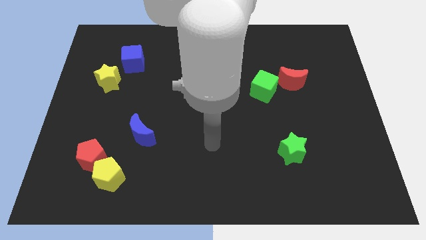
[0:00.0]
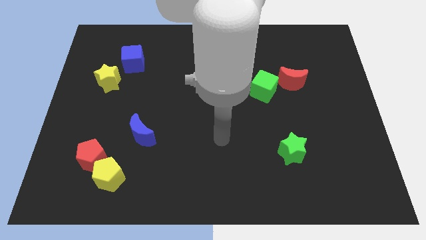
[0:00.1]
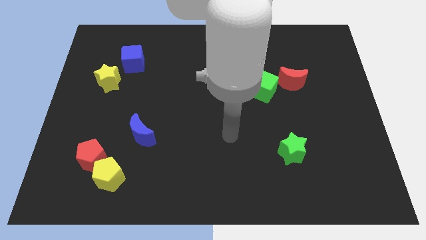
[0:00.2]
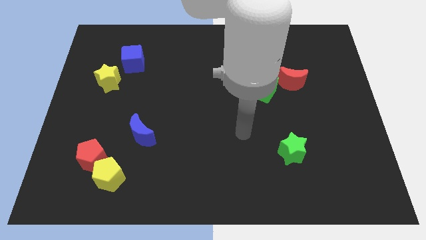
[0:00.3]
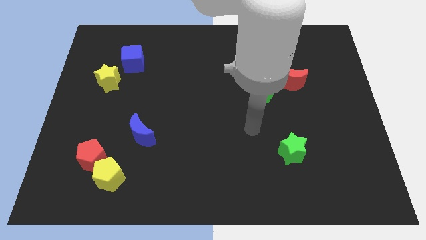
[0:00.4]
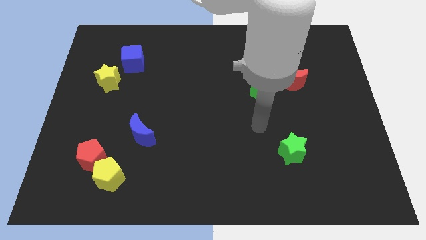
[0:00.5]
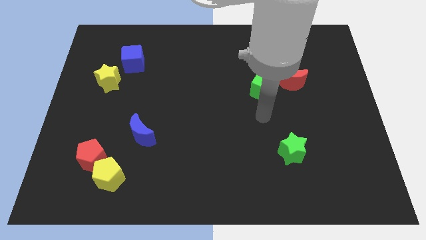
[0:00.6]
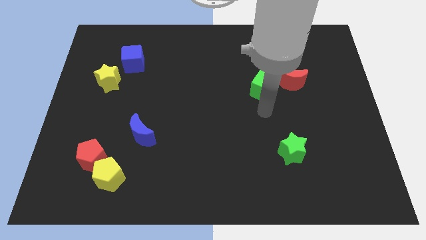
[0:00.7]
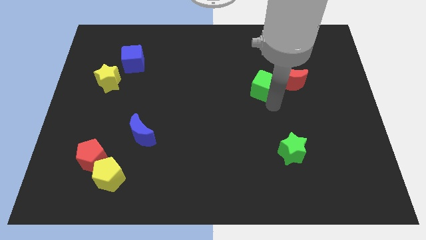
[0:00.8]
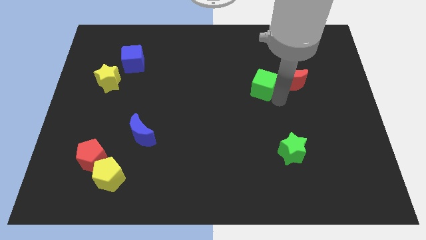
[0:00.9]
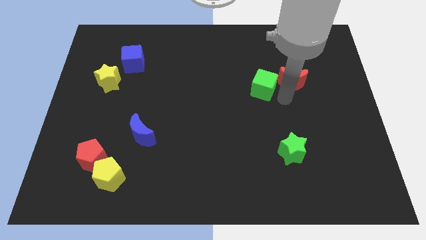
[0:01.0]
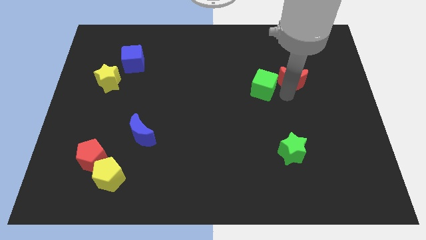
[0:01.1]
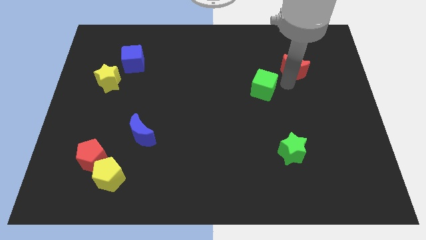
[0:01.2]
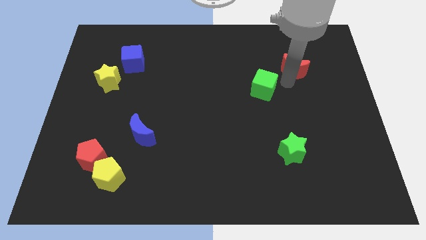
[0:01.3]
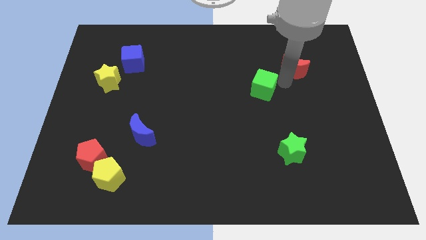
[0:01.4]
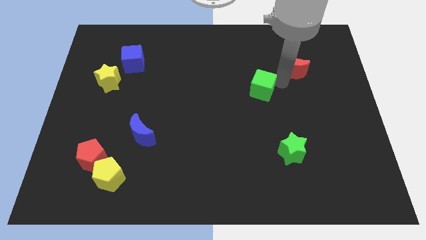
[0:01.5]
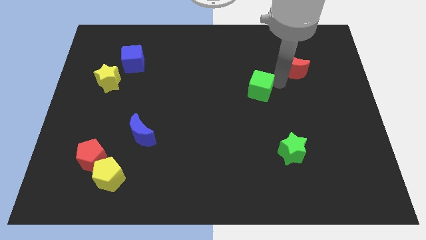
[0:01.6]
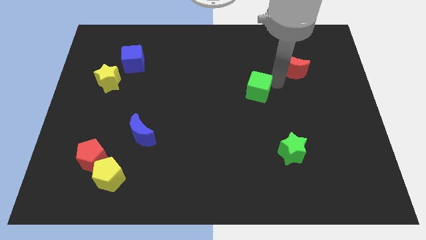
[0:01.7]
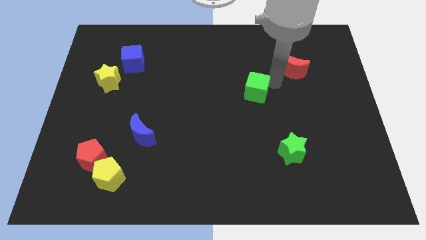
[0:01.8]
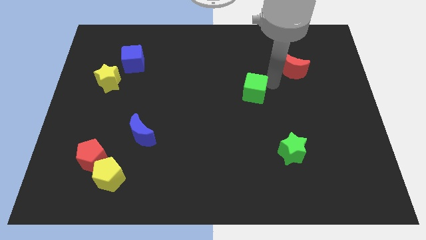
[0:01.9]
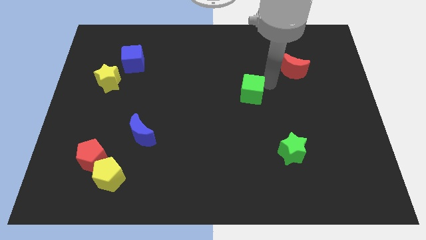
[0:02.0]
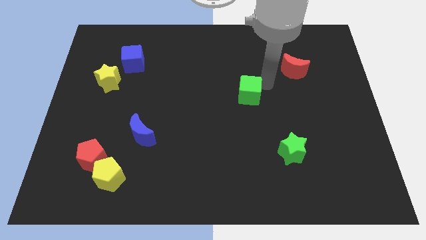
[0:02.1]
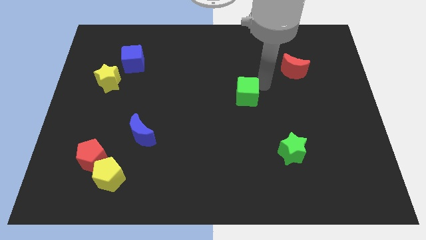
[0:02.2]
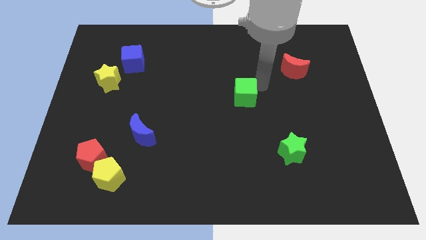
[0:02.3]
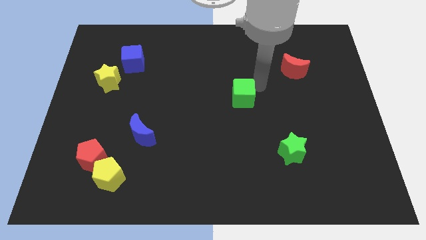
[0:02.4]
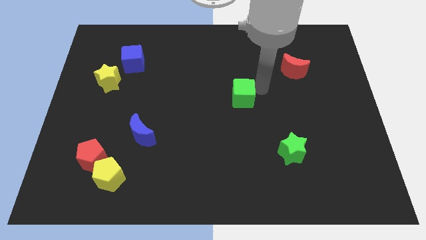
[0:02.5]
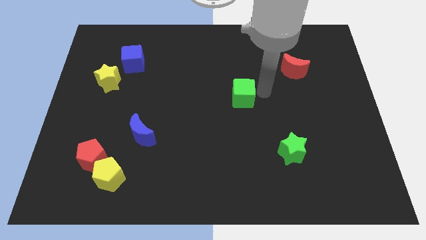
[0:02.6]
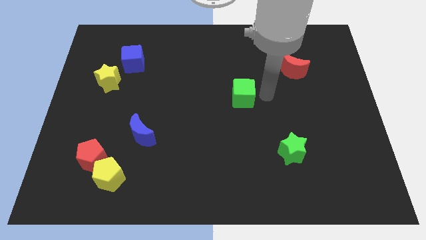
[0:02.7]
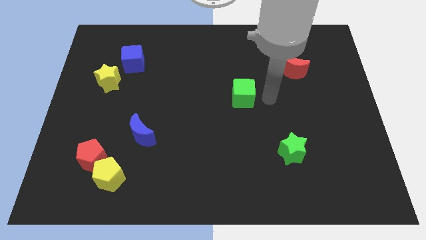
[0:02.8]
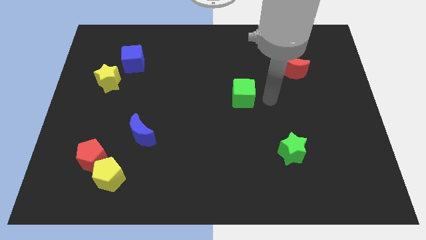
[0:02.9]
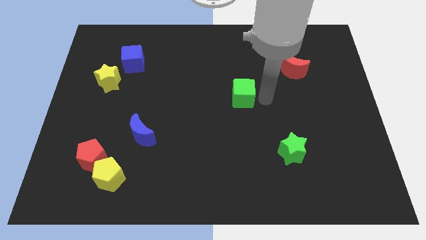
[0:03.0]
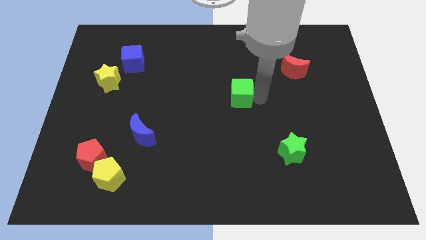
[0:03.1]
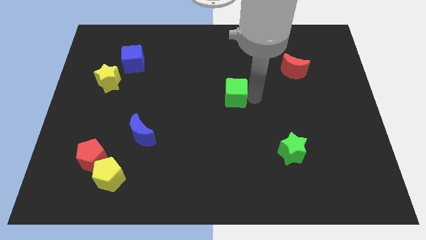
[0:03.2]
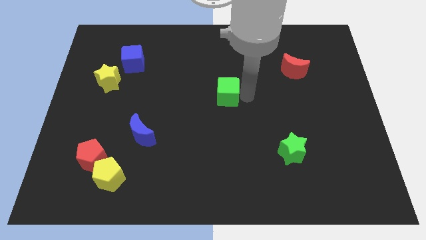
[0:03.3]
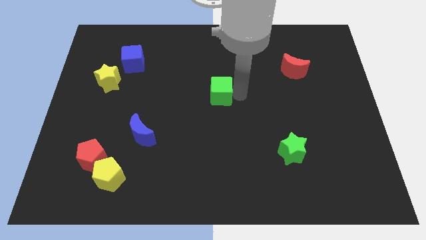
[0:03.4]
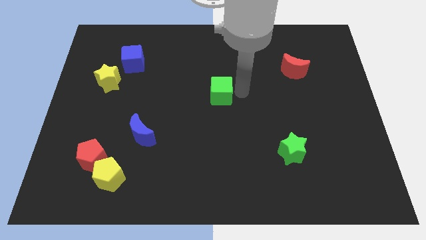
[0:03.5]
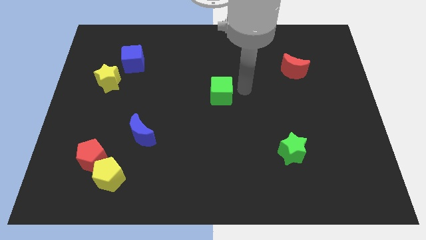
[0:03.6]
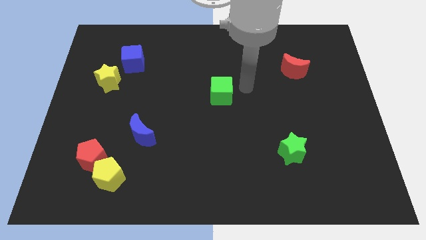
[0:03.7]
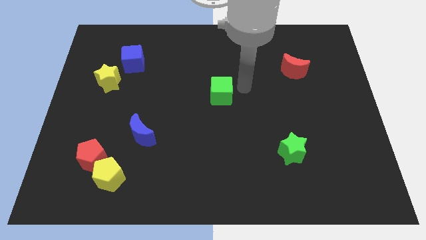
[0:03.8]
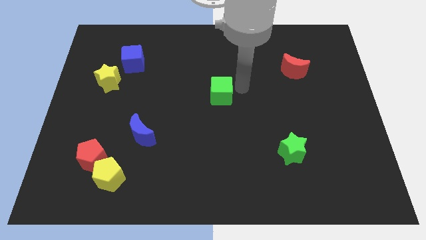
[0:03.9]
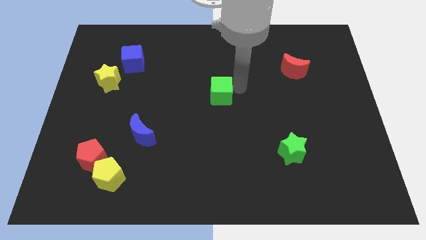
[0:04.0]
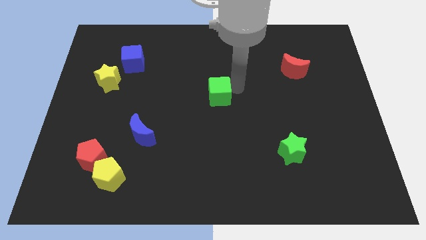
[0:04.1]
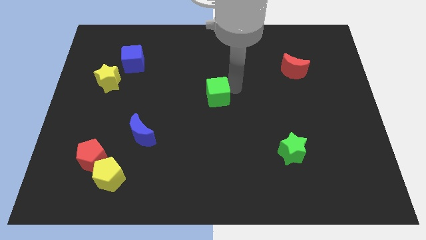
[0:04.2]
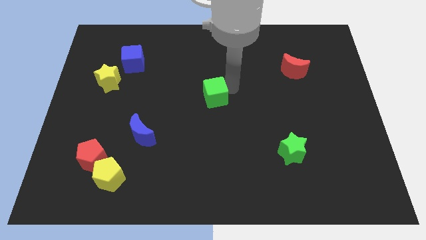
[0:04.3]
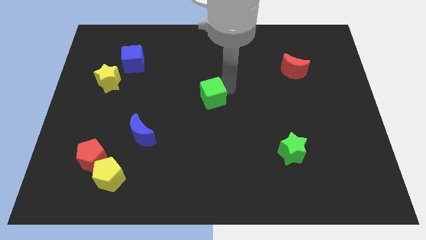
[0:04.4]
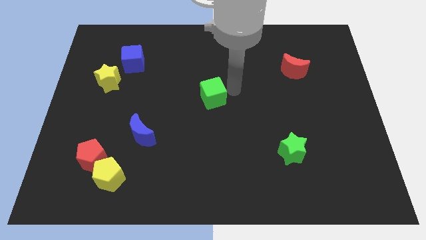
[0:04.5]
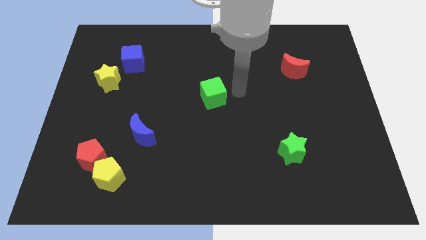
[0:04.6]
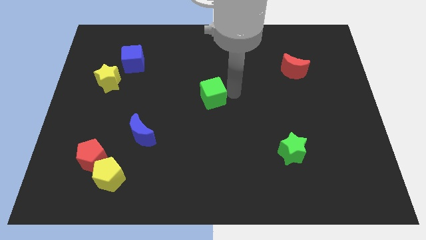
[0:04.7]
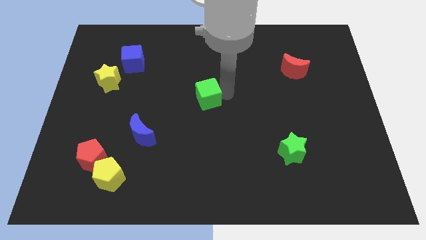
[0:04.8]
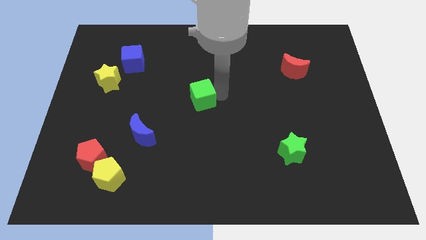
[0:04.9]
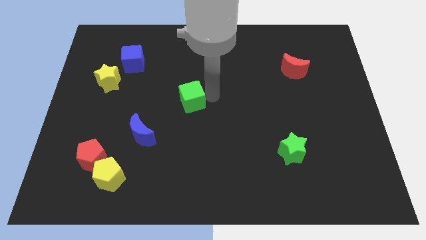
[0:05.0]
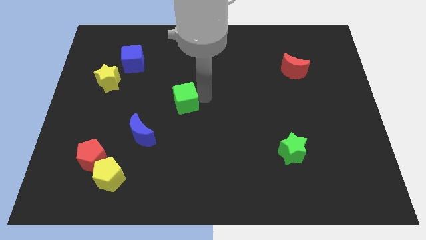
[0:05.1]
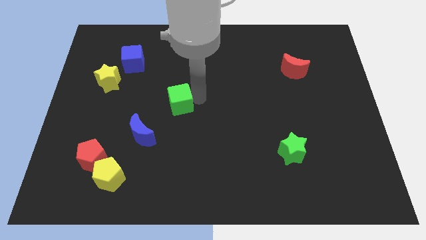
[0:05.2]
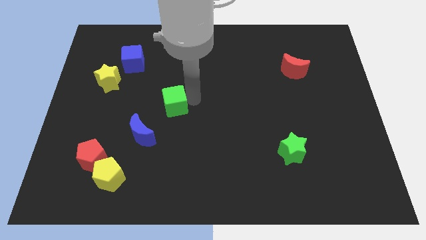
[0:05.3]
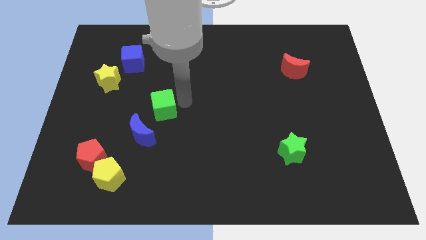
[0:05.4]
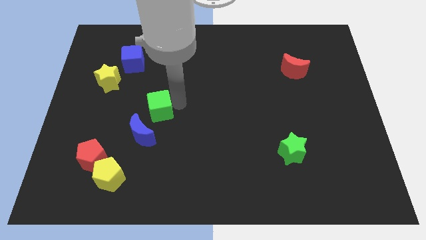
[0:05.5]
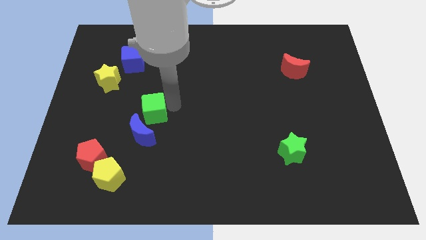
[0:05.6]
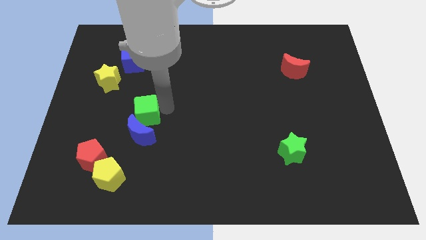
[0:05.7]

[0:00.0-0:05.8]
put the green cube to the top left side of the blue moon

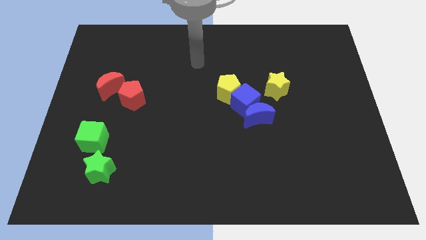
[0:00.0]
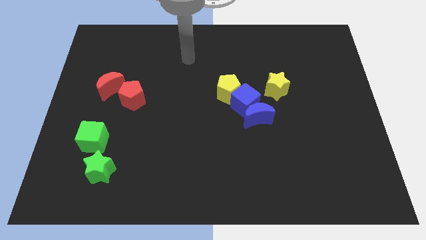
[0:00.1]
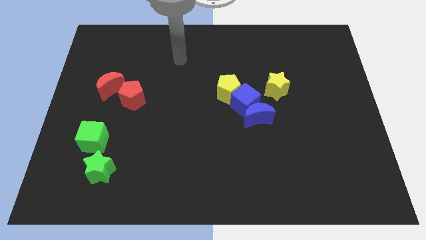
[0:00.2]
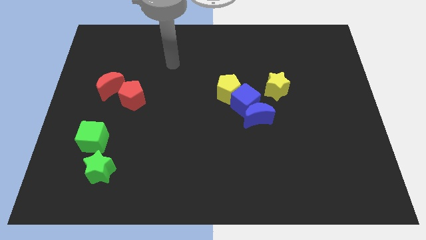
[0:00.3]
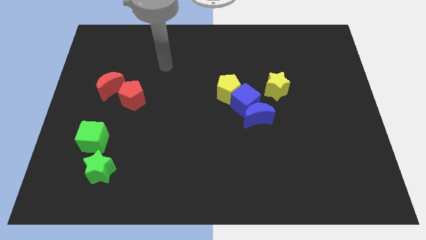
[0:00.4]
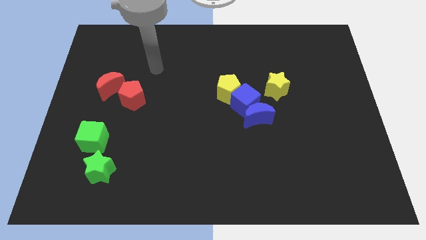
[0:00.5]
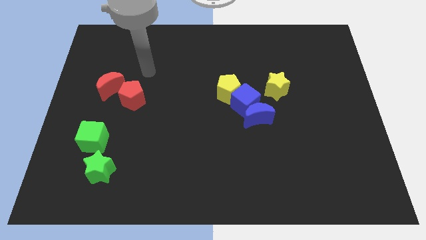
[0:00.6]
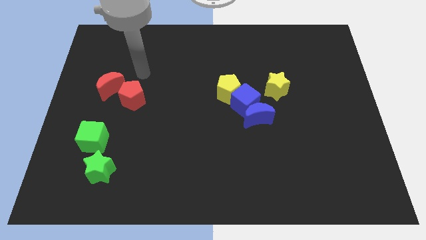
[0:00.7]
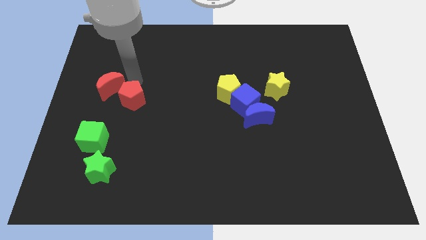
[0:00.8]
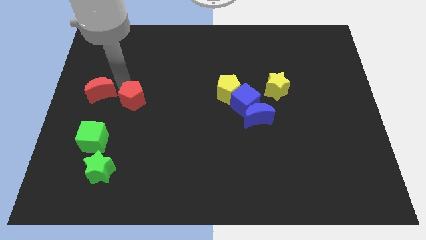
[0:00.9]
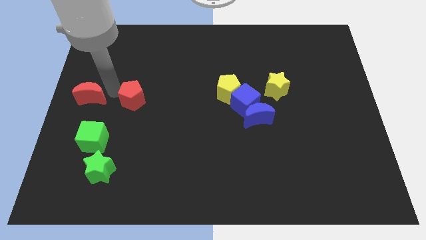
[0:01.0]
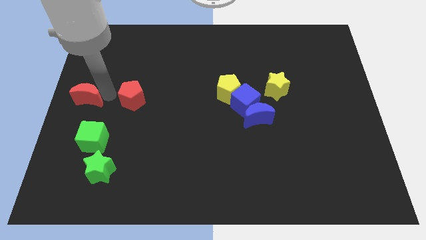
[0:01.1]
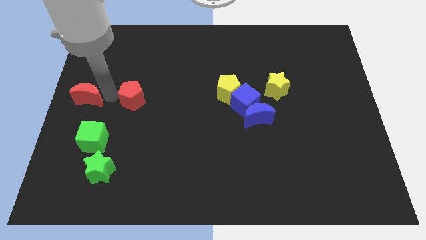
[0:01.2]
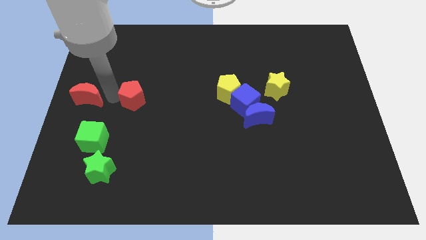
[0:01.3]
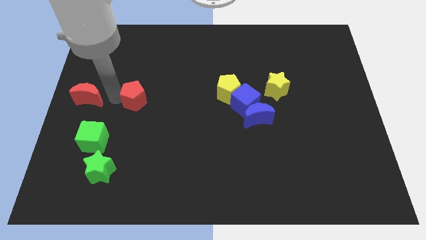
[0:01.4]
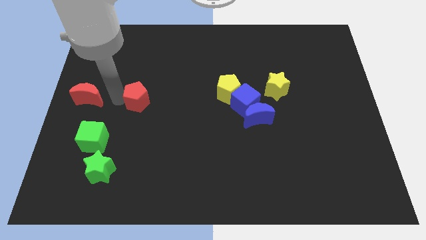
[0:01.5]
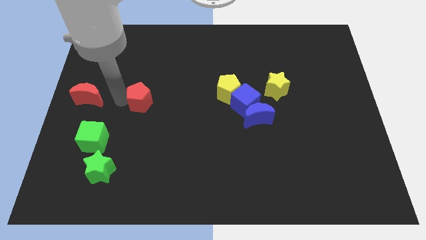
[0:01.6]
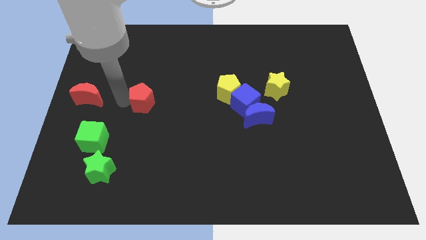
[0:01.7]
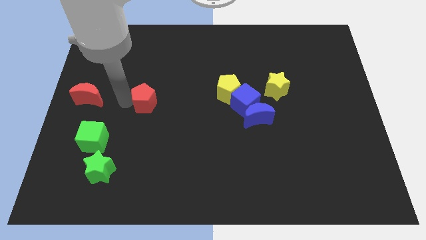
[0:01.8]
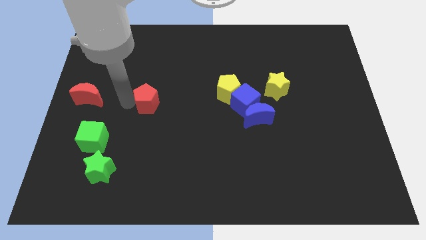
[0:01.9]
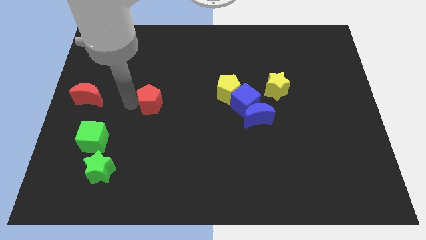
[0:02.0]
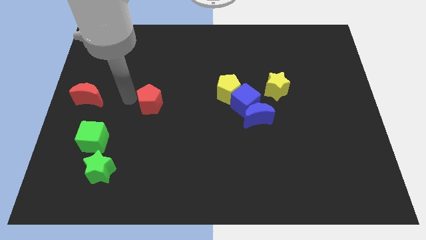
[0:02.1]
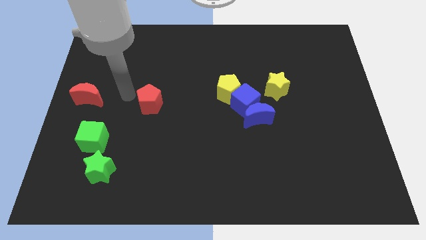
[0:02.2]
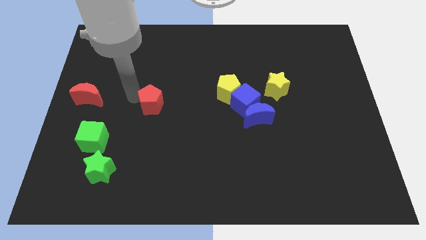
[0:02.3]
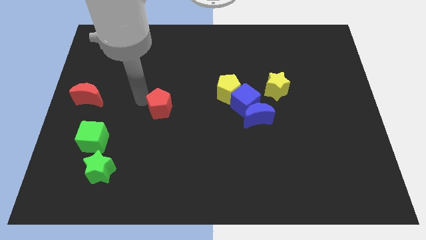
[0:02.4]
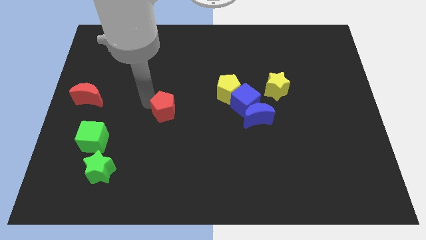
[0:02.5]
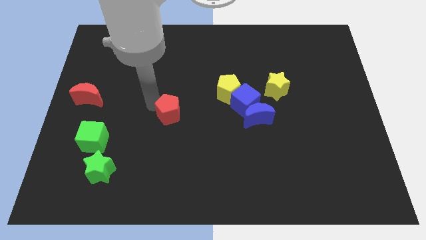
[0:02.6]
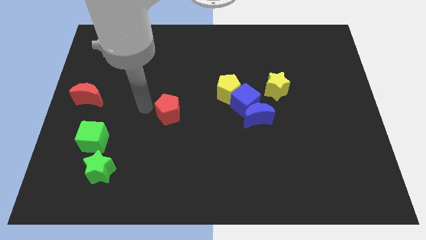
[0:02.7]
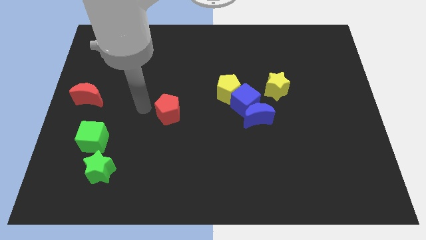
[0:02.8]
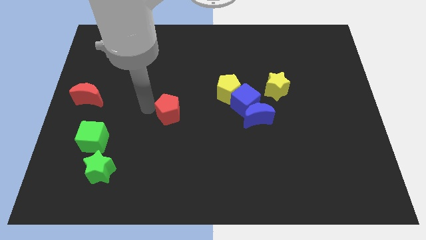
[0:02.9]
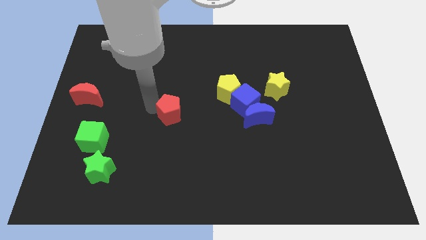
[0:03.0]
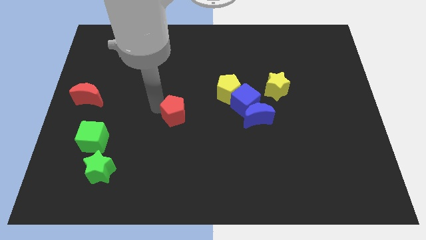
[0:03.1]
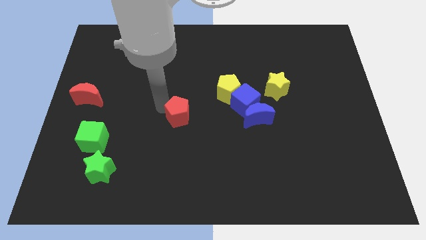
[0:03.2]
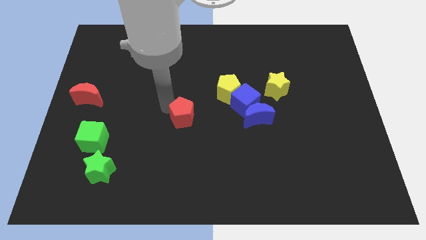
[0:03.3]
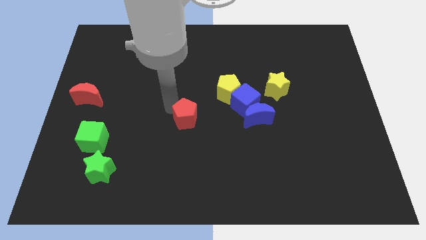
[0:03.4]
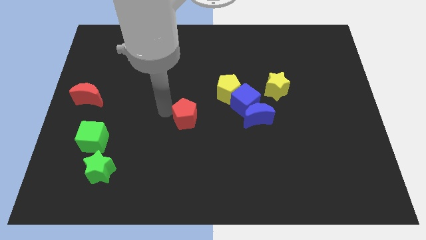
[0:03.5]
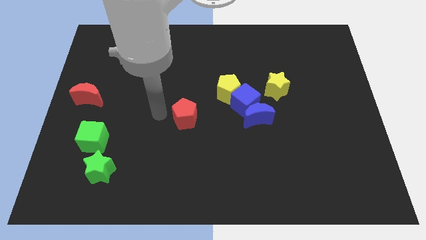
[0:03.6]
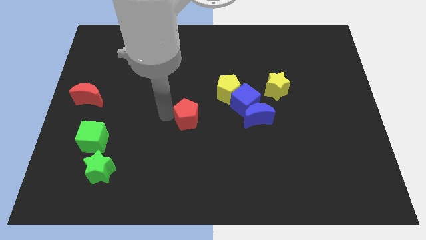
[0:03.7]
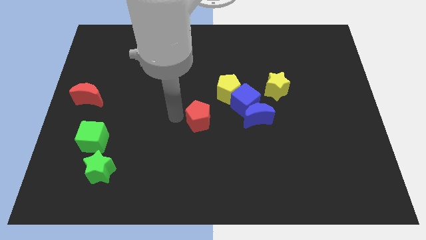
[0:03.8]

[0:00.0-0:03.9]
slide the red pentagon diagonally down and to the left of the blue cube
